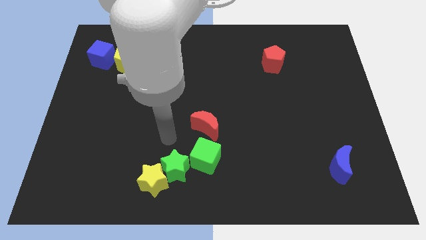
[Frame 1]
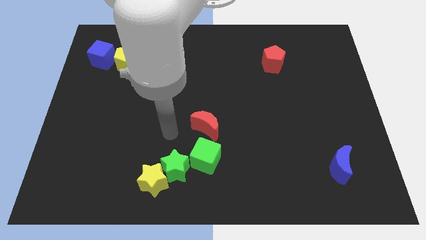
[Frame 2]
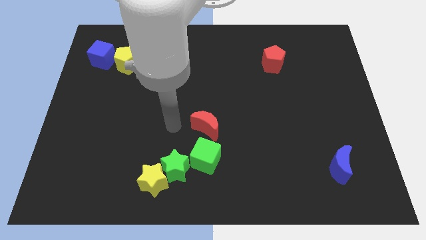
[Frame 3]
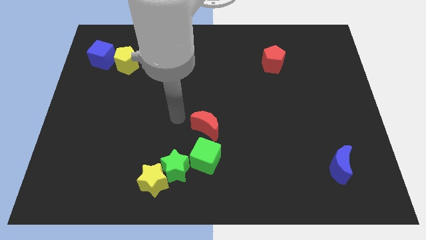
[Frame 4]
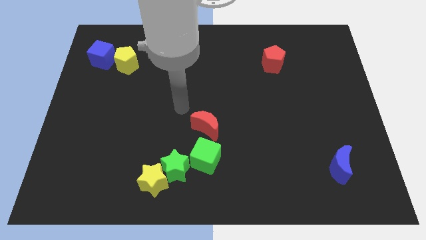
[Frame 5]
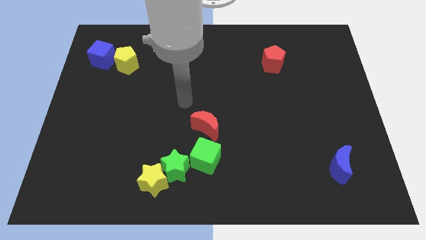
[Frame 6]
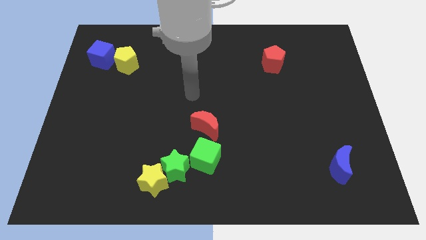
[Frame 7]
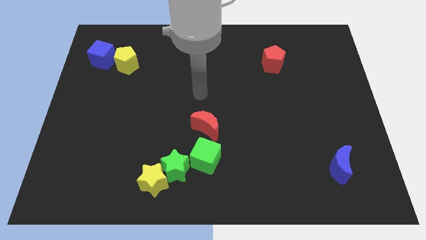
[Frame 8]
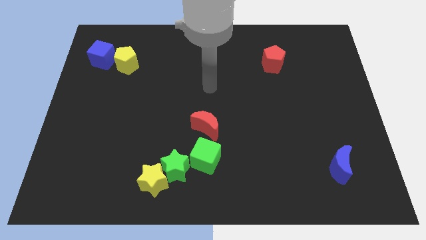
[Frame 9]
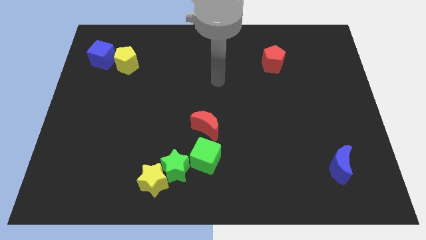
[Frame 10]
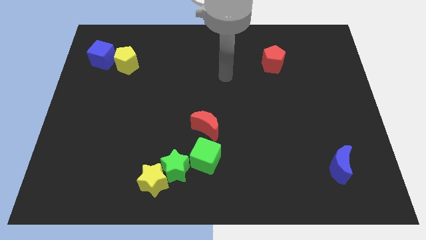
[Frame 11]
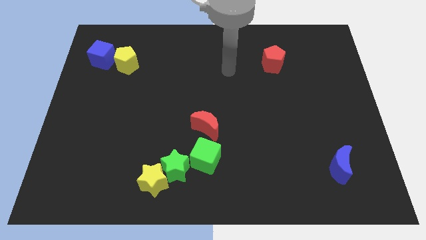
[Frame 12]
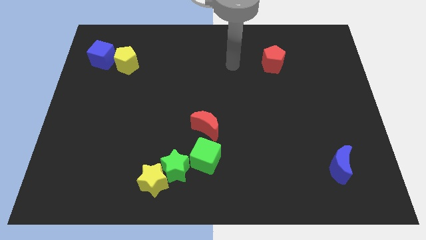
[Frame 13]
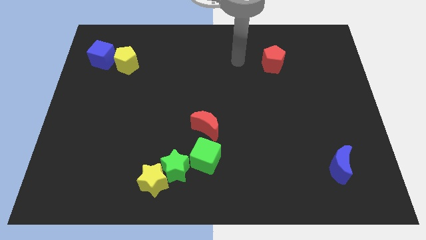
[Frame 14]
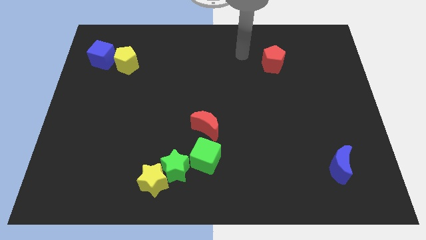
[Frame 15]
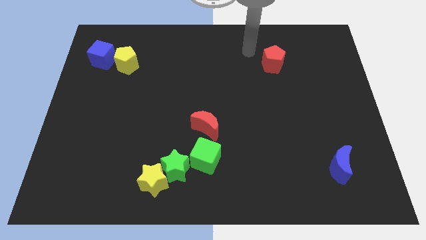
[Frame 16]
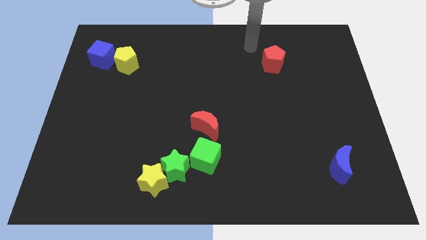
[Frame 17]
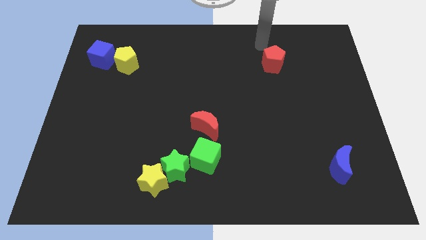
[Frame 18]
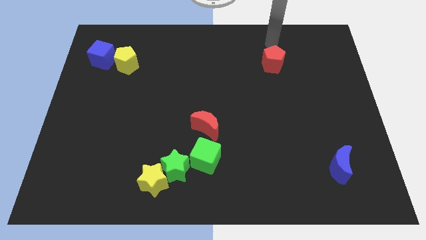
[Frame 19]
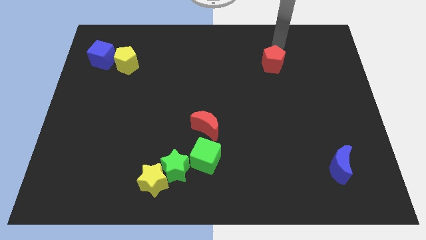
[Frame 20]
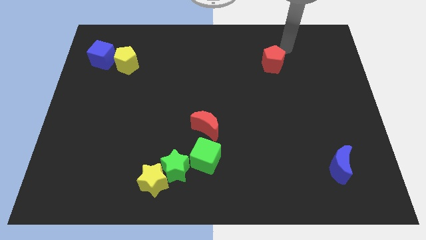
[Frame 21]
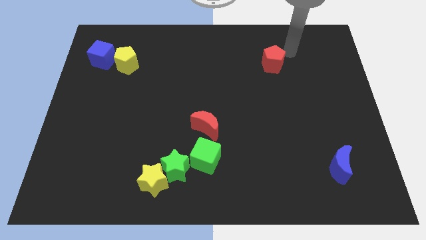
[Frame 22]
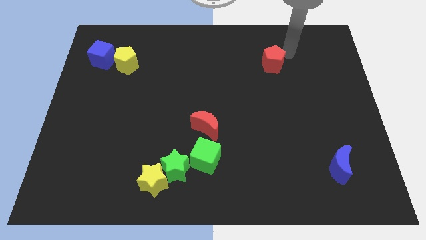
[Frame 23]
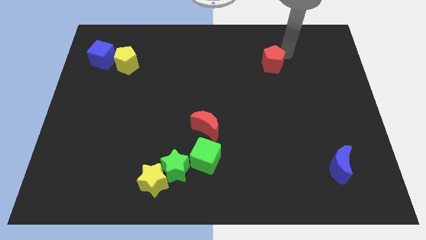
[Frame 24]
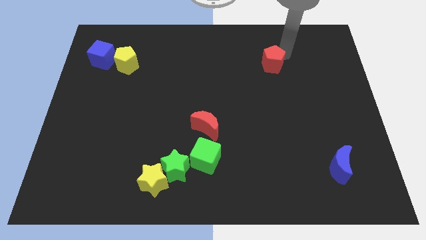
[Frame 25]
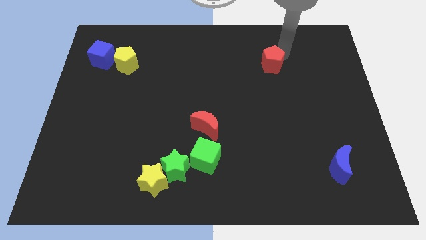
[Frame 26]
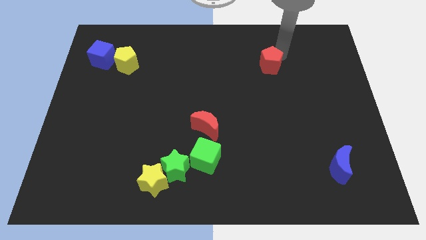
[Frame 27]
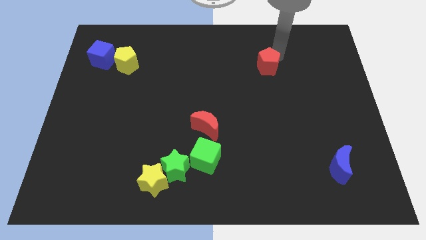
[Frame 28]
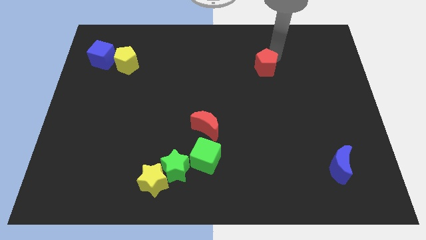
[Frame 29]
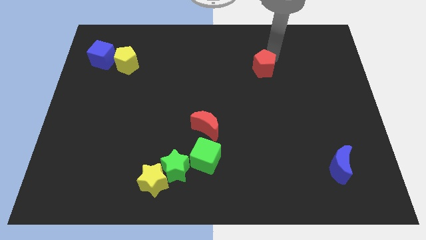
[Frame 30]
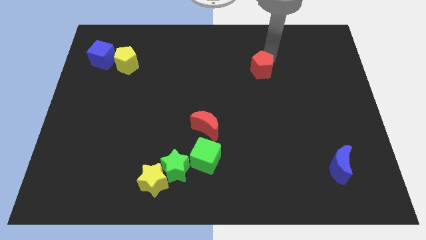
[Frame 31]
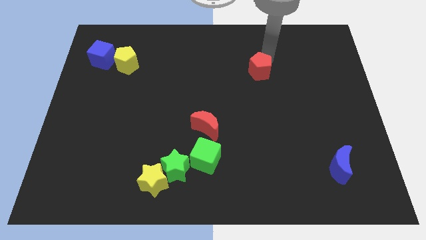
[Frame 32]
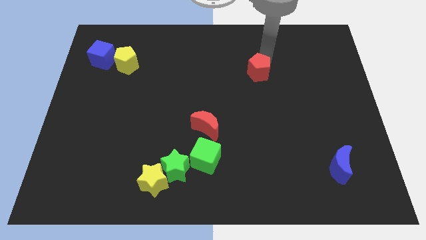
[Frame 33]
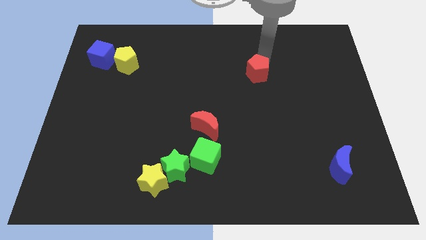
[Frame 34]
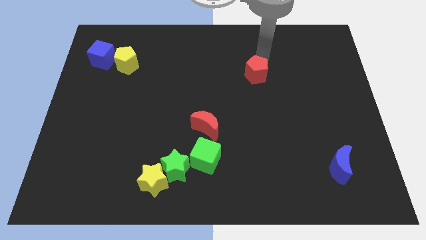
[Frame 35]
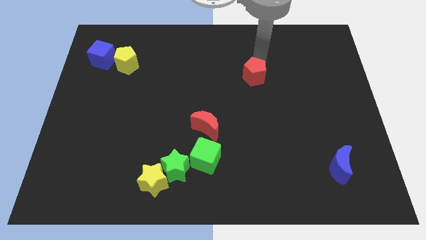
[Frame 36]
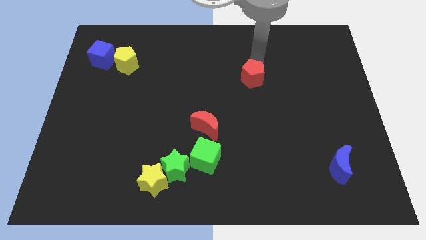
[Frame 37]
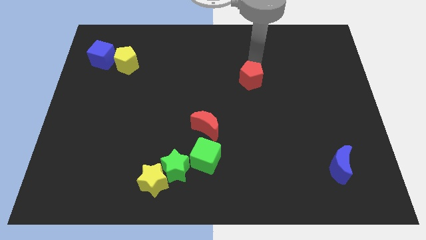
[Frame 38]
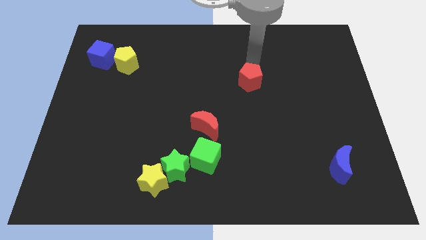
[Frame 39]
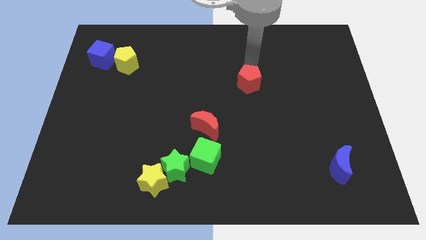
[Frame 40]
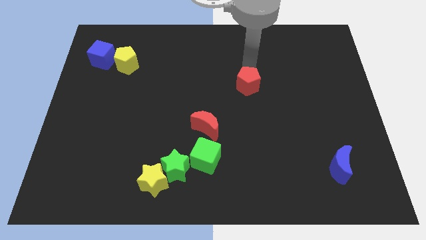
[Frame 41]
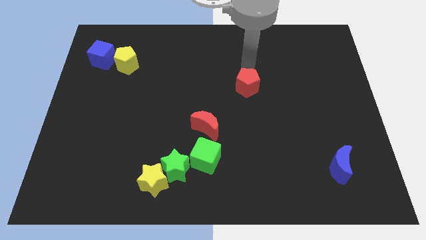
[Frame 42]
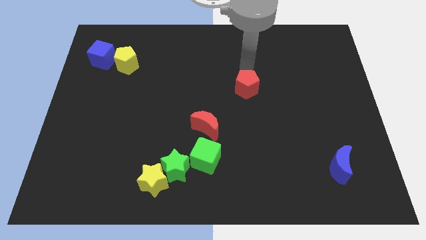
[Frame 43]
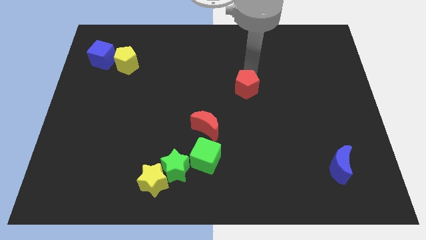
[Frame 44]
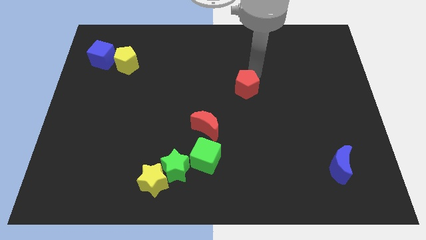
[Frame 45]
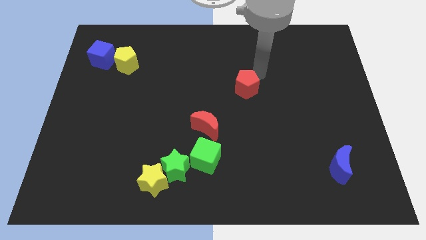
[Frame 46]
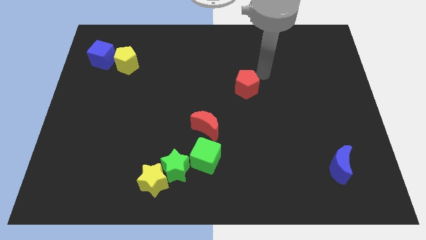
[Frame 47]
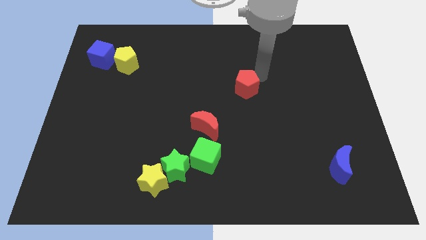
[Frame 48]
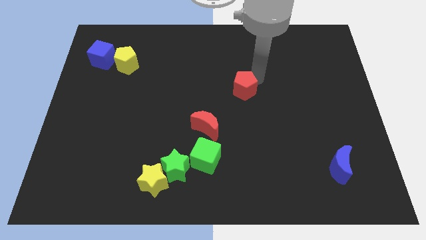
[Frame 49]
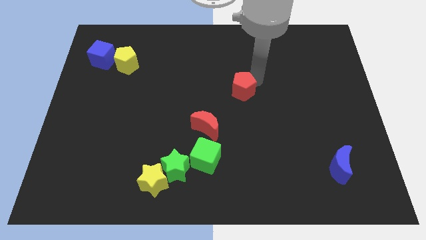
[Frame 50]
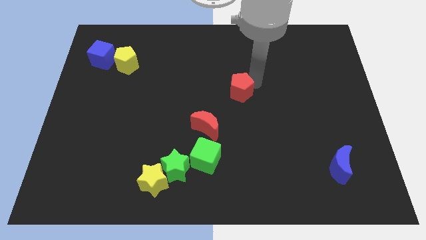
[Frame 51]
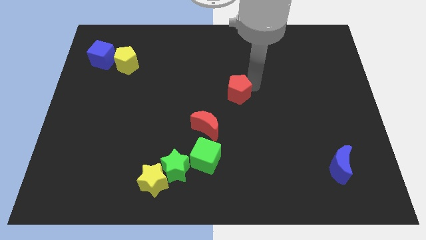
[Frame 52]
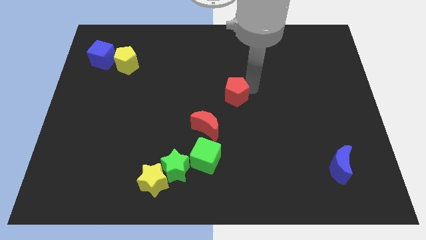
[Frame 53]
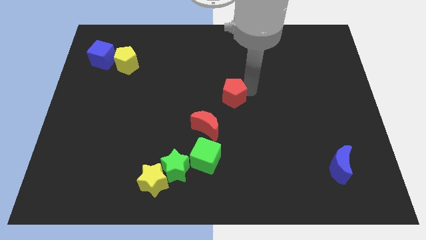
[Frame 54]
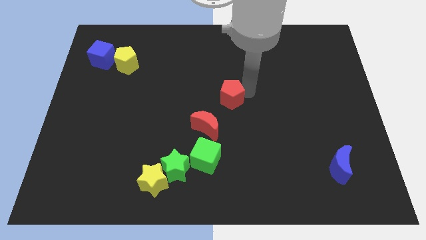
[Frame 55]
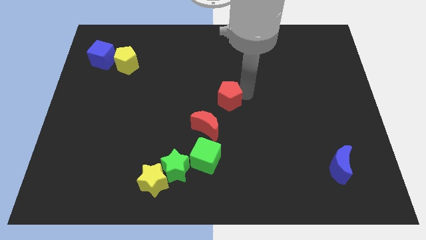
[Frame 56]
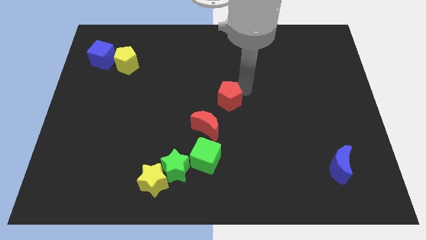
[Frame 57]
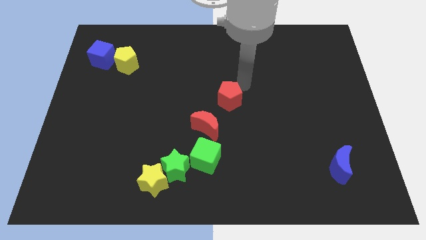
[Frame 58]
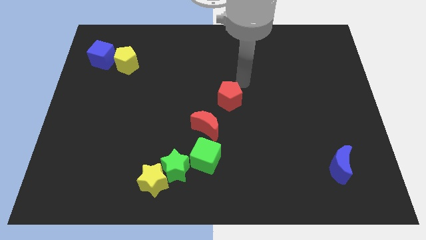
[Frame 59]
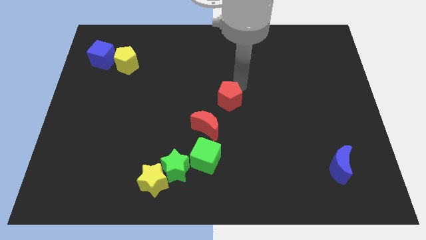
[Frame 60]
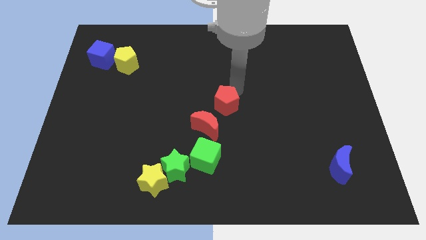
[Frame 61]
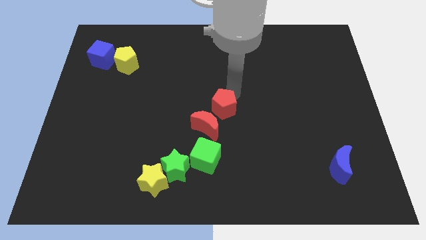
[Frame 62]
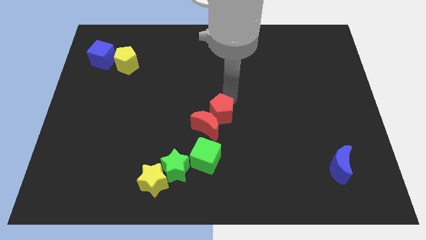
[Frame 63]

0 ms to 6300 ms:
push the red pentagon next to the red moon
